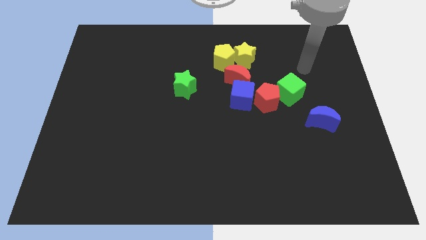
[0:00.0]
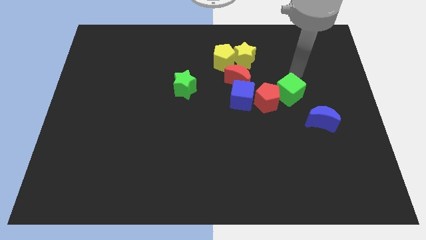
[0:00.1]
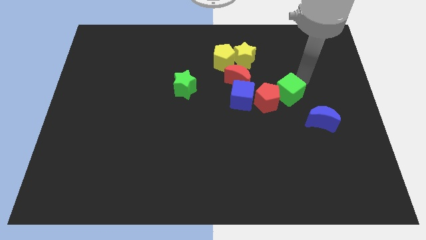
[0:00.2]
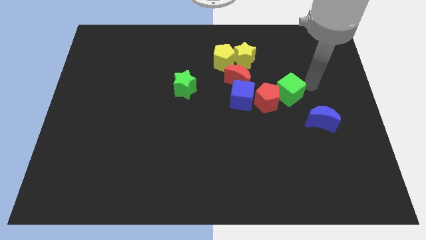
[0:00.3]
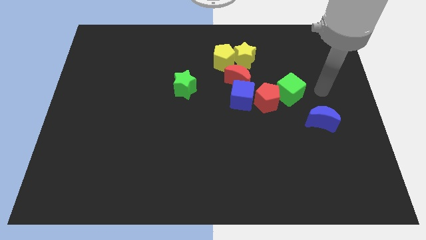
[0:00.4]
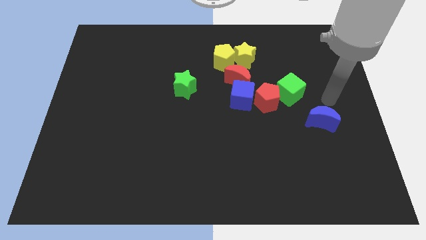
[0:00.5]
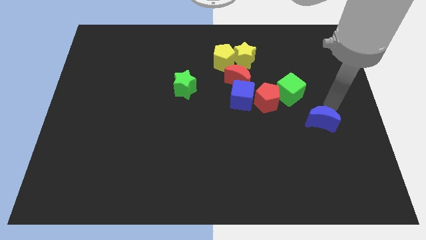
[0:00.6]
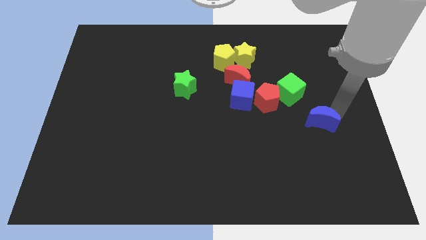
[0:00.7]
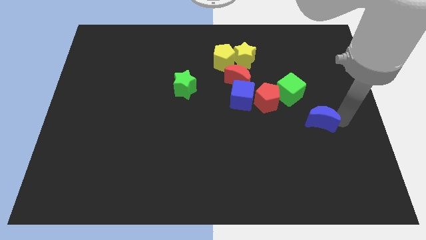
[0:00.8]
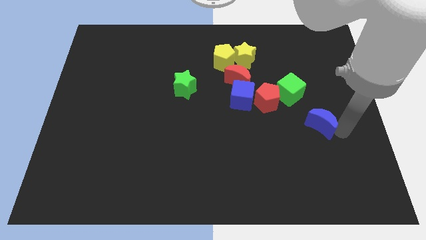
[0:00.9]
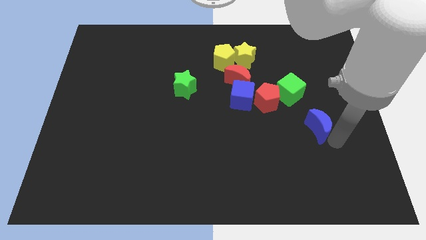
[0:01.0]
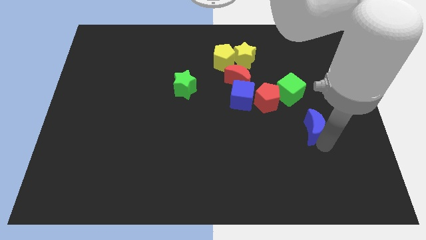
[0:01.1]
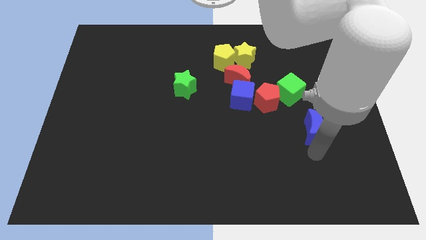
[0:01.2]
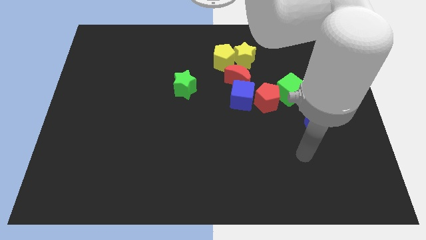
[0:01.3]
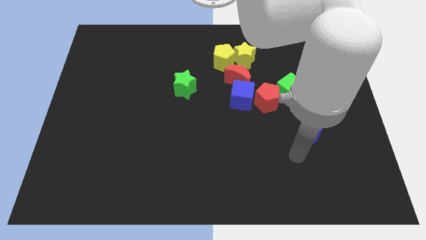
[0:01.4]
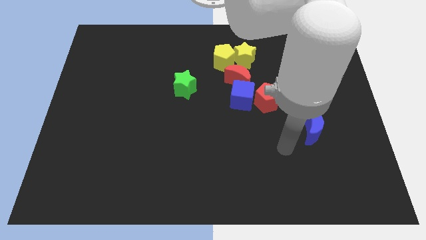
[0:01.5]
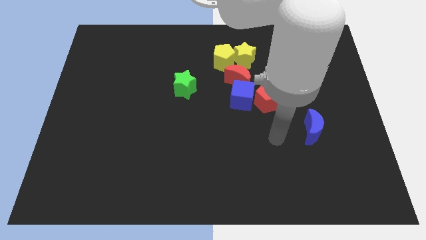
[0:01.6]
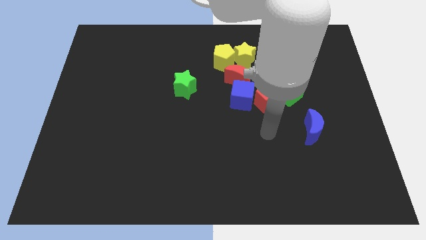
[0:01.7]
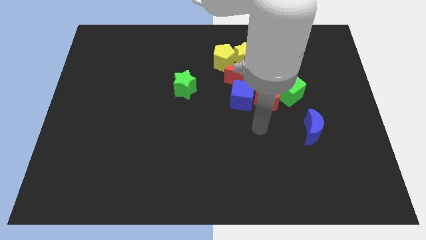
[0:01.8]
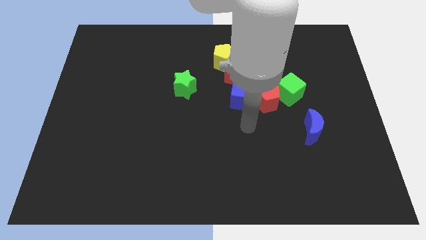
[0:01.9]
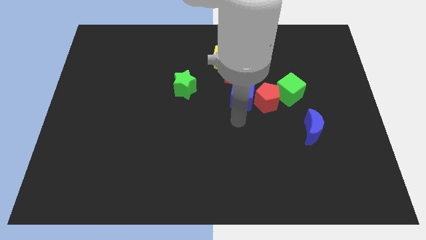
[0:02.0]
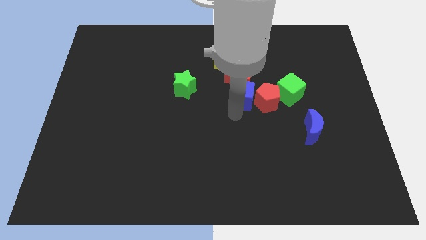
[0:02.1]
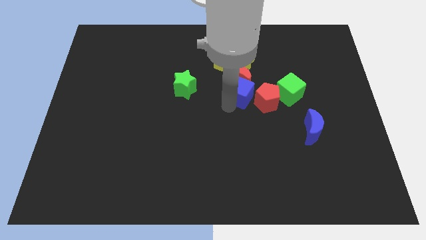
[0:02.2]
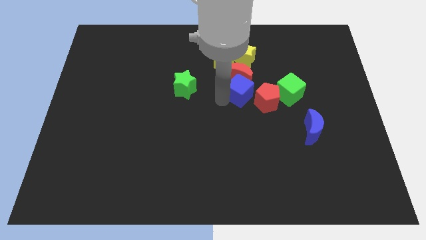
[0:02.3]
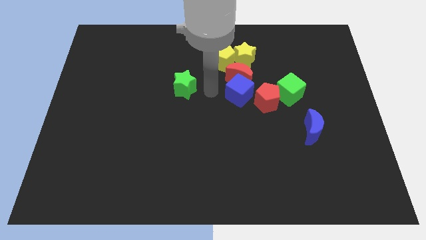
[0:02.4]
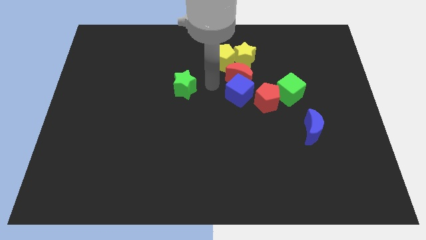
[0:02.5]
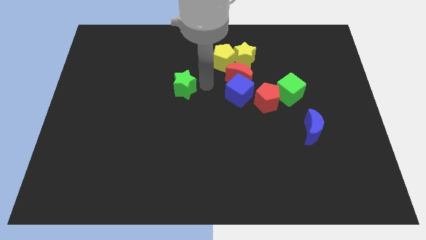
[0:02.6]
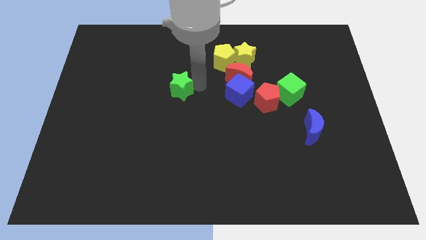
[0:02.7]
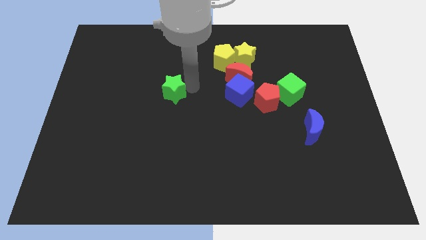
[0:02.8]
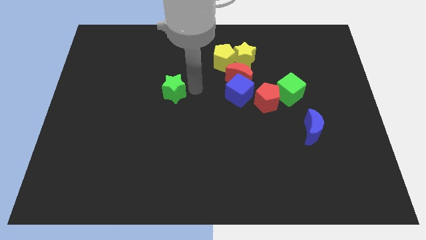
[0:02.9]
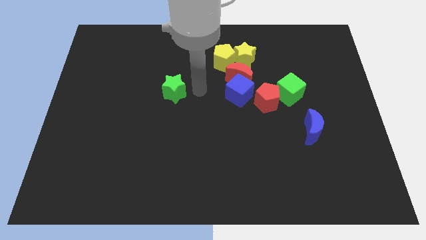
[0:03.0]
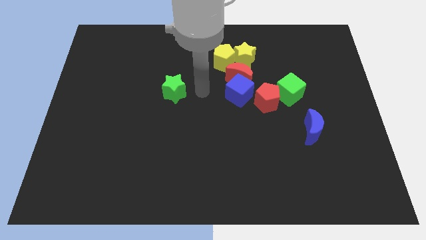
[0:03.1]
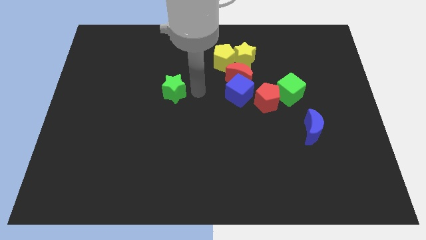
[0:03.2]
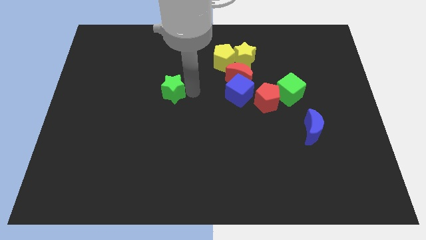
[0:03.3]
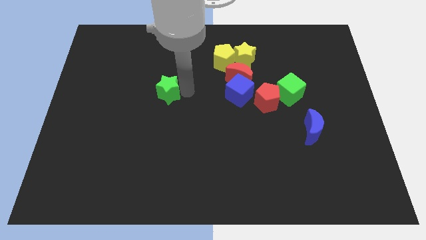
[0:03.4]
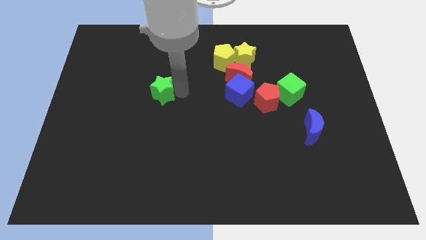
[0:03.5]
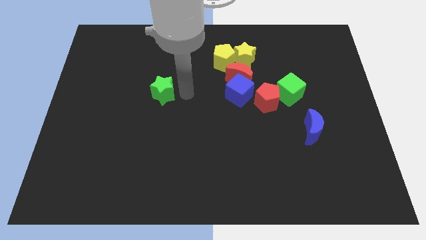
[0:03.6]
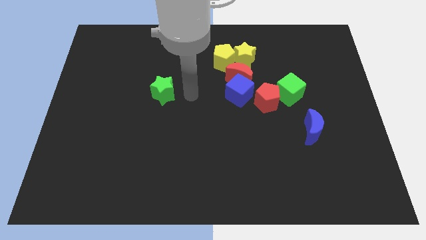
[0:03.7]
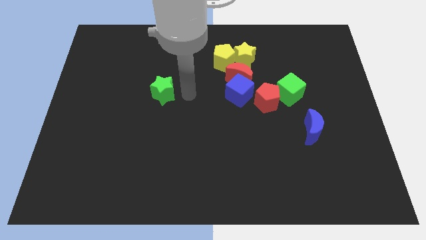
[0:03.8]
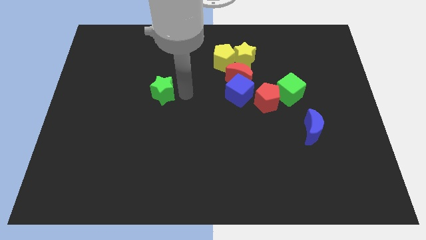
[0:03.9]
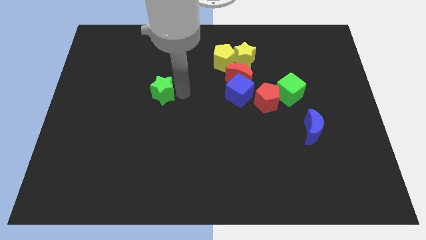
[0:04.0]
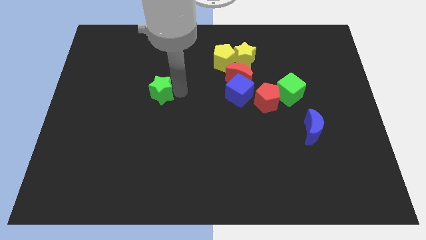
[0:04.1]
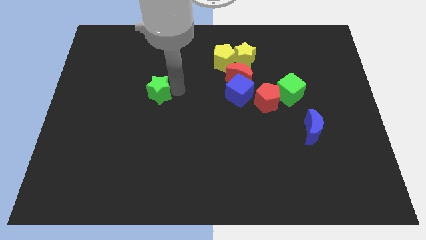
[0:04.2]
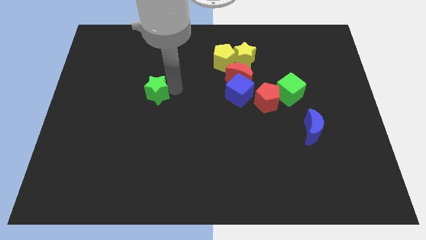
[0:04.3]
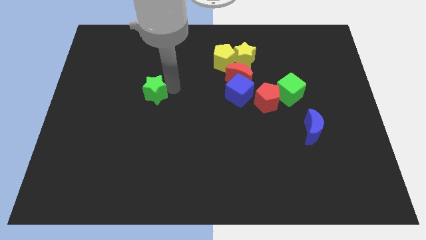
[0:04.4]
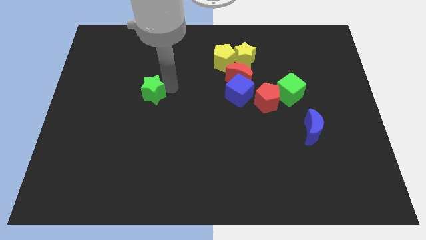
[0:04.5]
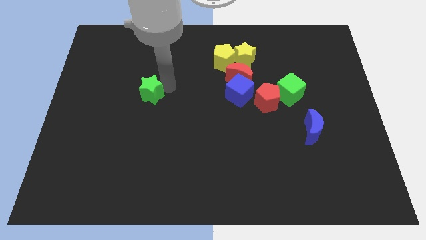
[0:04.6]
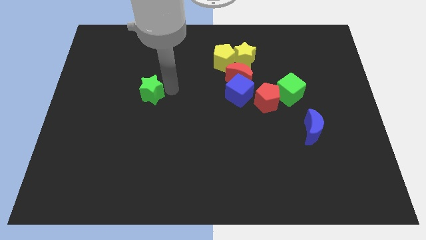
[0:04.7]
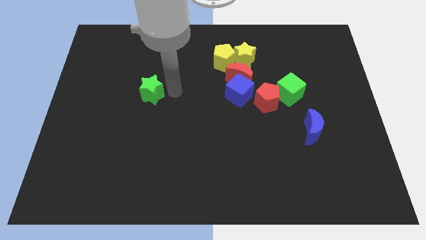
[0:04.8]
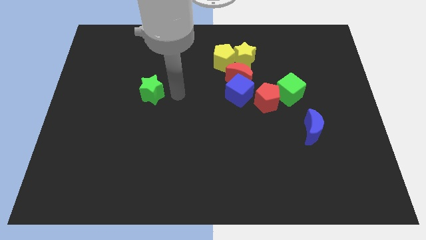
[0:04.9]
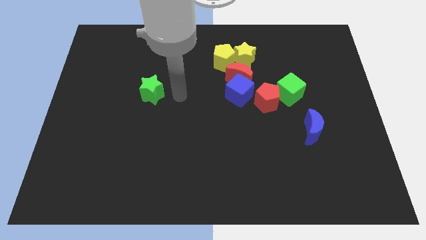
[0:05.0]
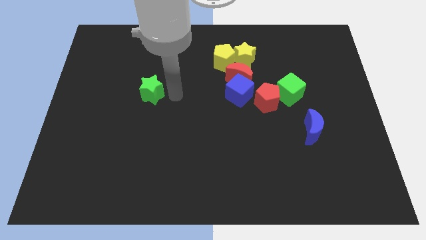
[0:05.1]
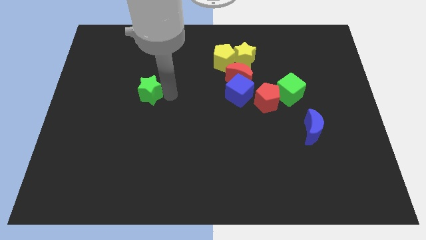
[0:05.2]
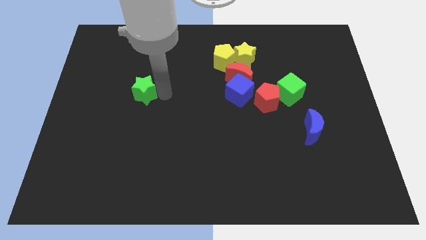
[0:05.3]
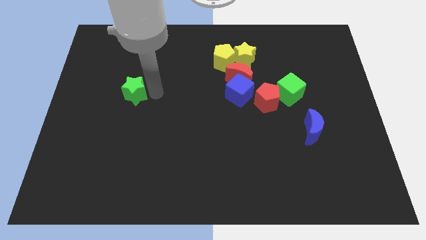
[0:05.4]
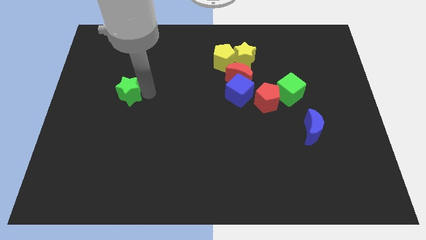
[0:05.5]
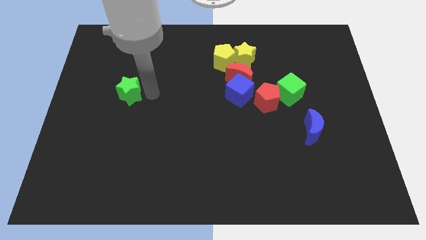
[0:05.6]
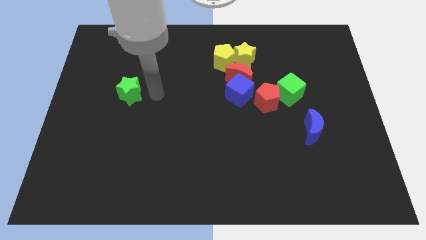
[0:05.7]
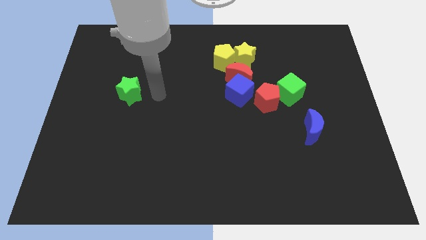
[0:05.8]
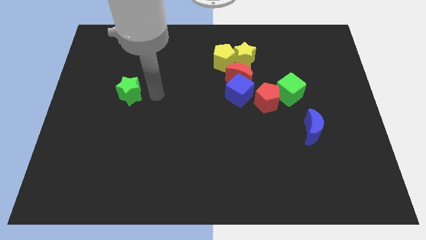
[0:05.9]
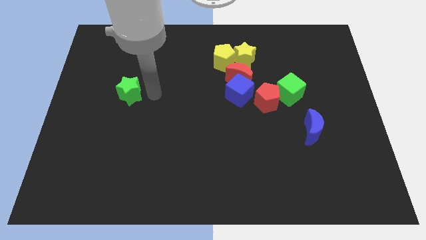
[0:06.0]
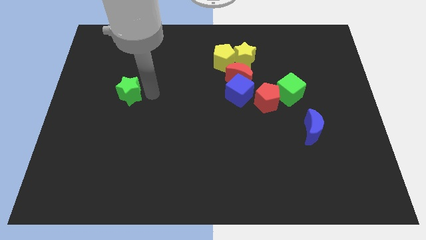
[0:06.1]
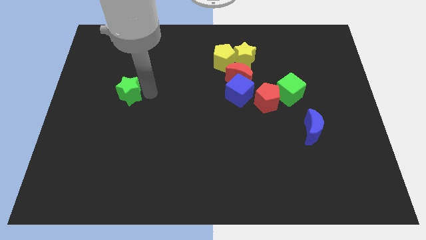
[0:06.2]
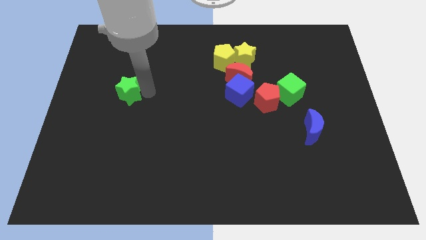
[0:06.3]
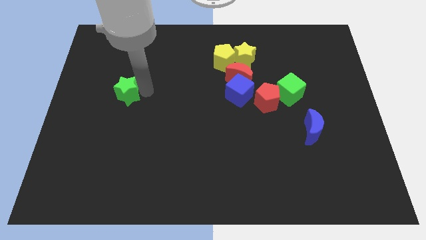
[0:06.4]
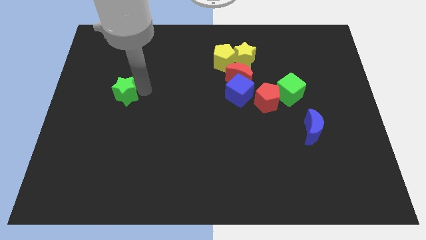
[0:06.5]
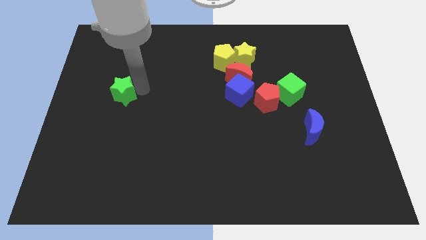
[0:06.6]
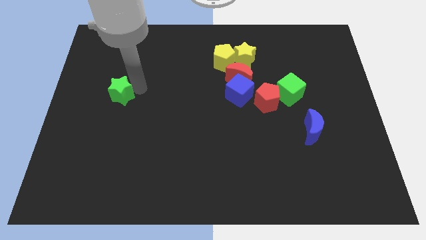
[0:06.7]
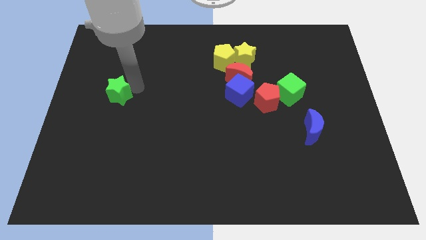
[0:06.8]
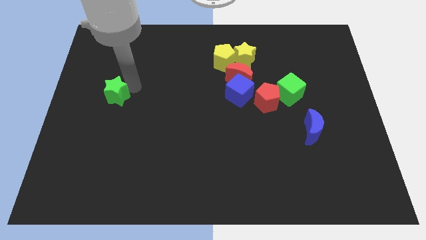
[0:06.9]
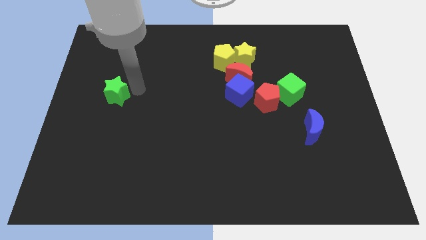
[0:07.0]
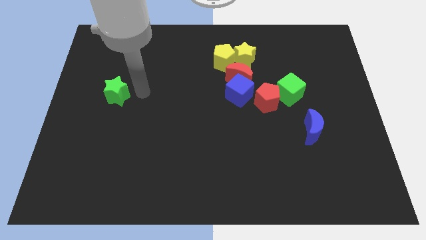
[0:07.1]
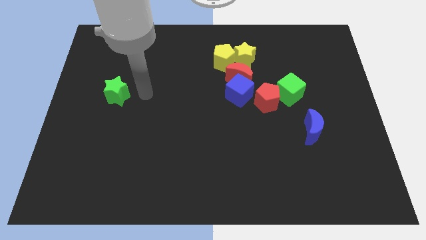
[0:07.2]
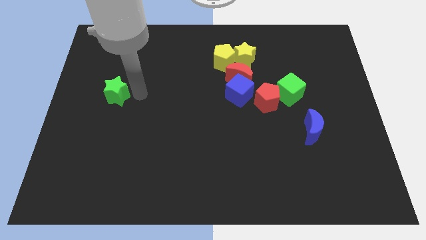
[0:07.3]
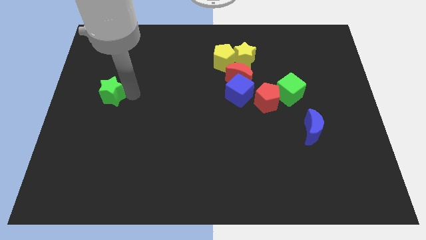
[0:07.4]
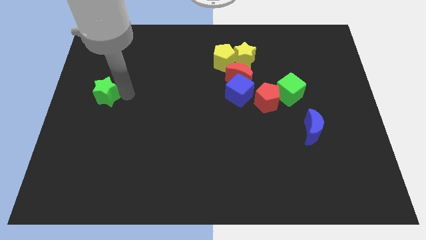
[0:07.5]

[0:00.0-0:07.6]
put the green star to the left side of the board

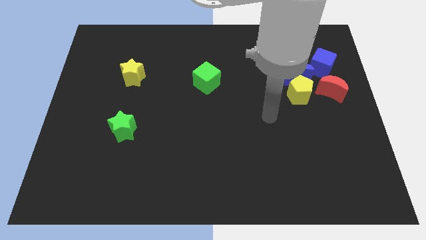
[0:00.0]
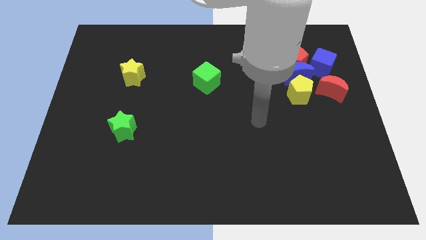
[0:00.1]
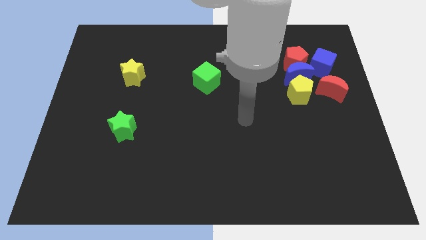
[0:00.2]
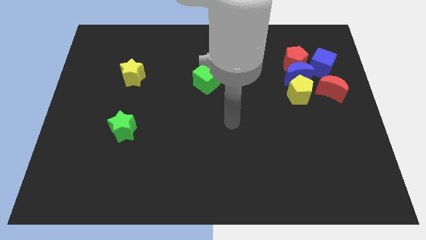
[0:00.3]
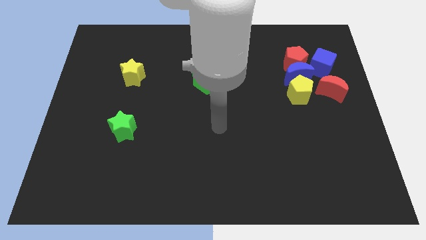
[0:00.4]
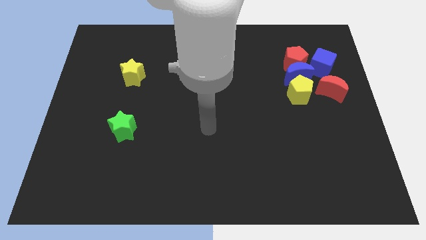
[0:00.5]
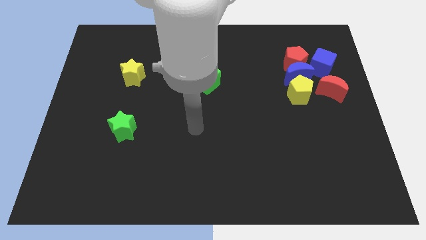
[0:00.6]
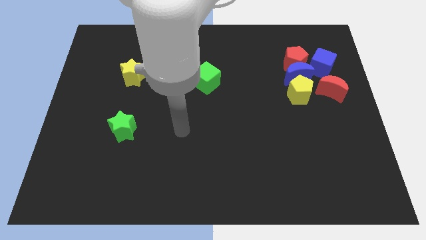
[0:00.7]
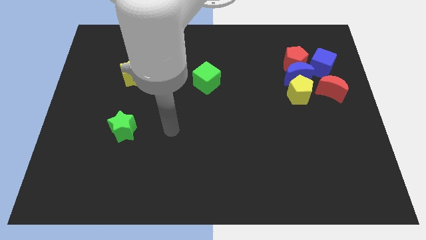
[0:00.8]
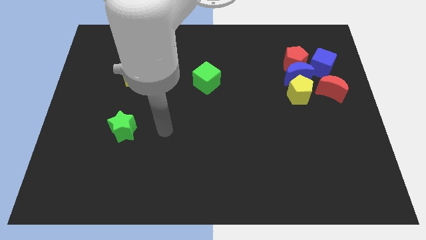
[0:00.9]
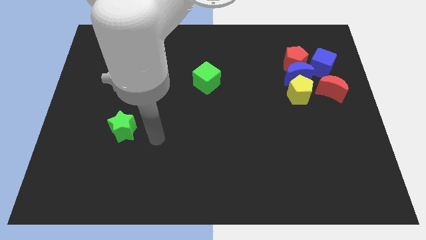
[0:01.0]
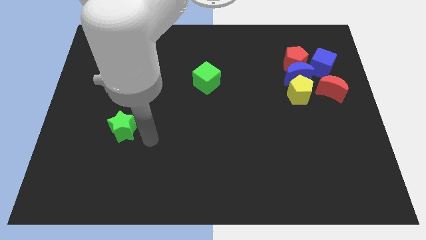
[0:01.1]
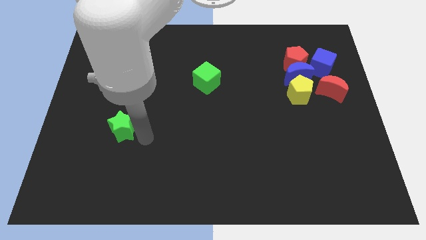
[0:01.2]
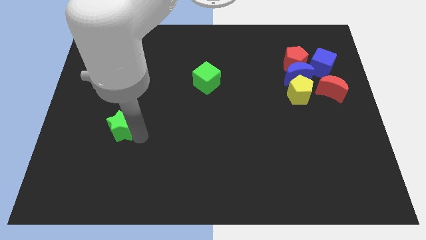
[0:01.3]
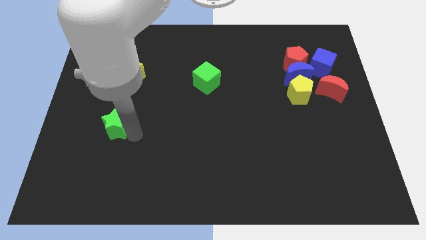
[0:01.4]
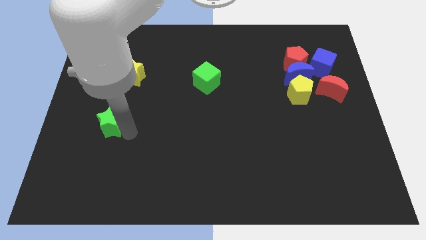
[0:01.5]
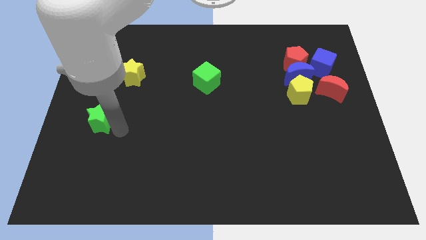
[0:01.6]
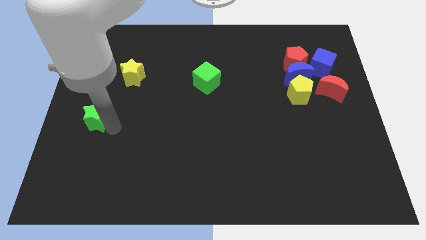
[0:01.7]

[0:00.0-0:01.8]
put the green star to the center left
